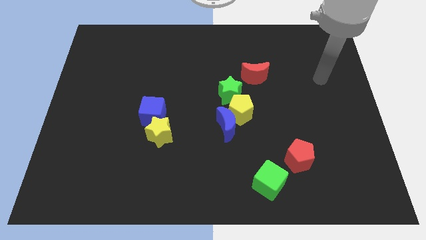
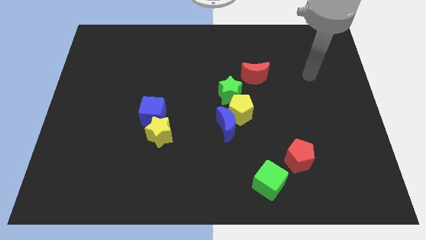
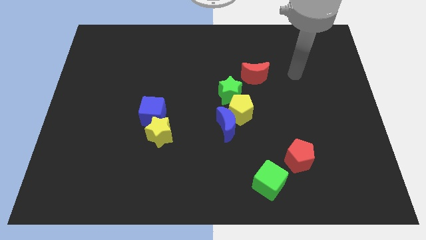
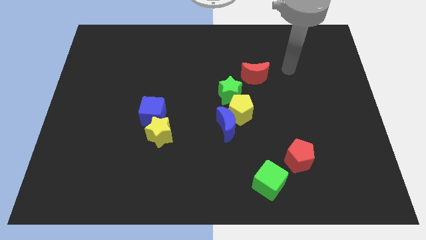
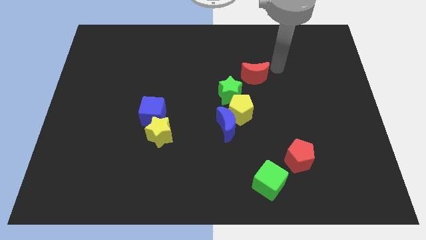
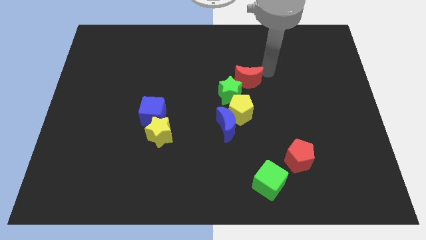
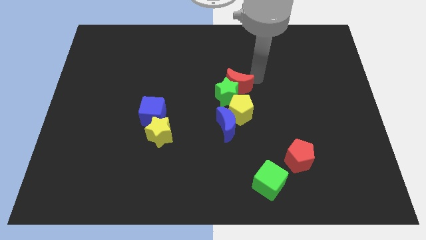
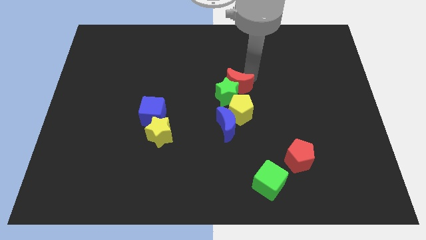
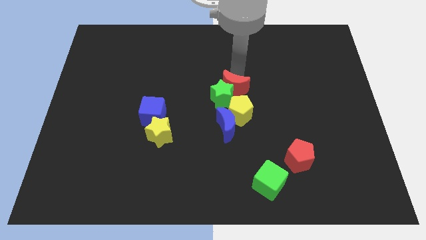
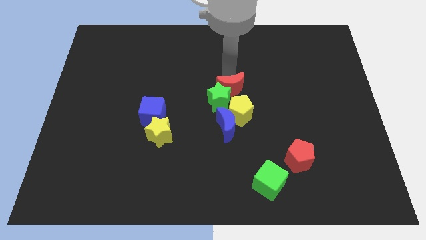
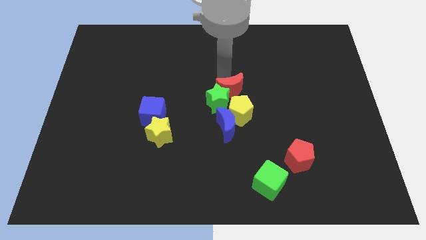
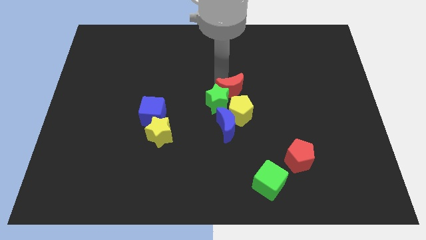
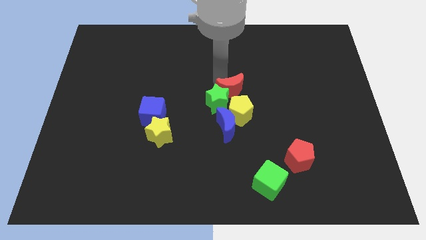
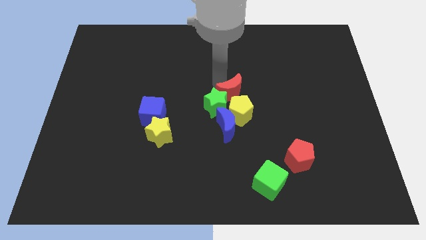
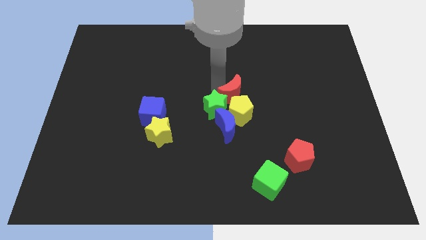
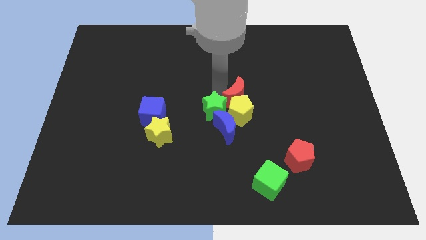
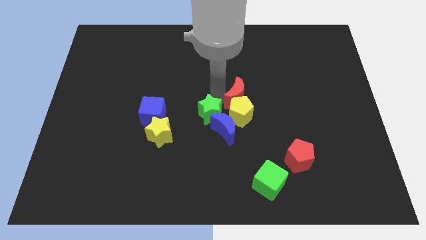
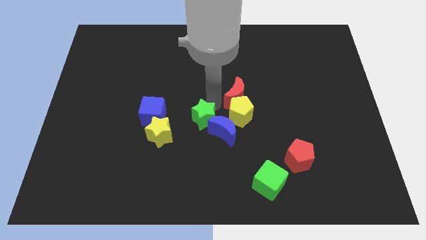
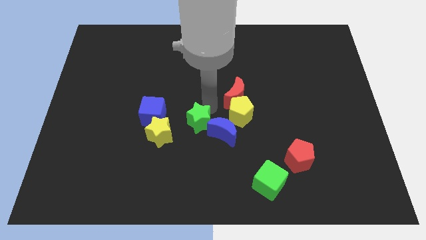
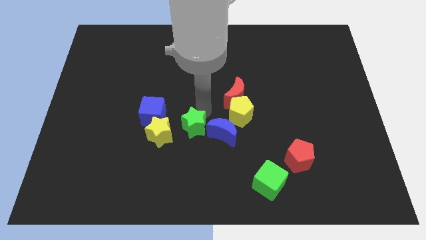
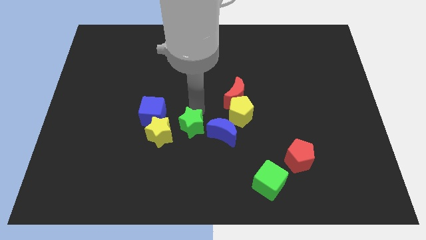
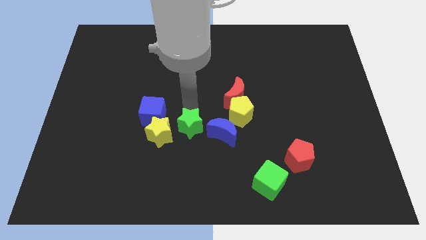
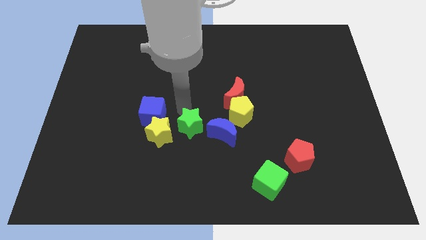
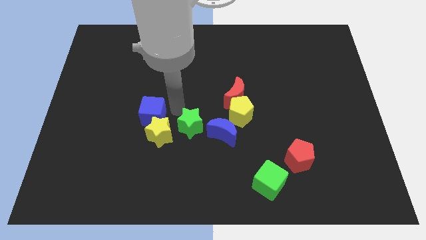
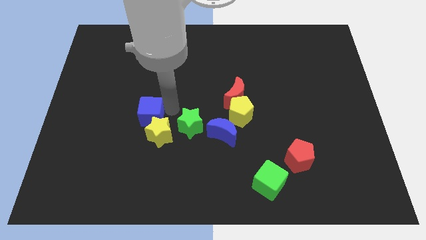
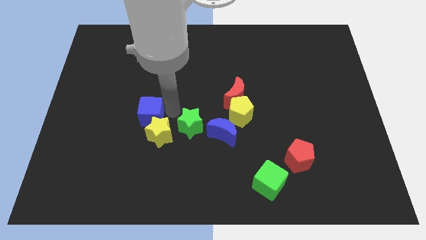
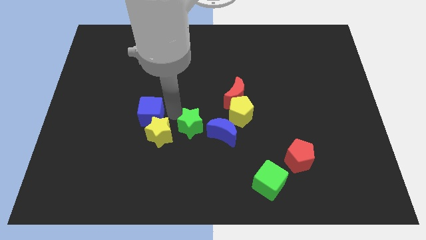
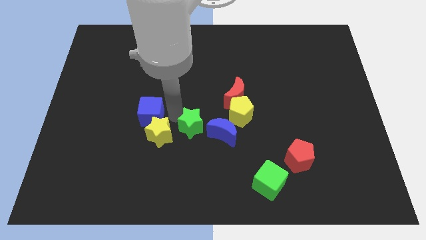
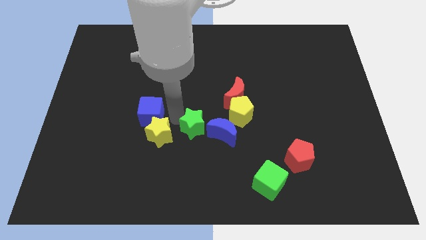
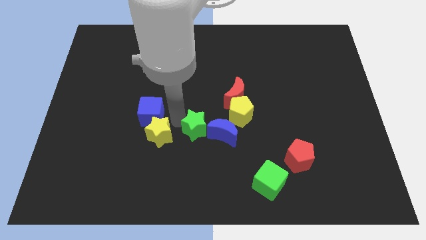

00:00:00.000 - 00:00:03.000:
slightly move the green star downwards

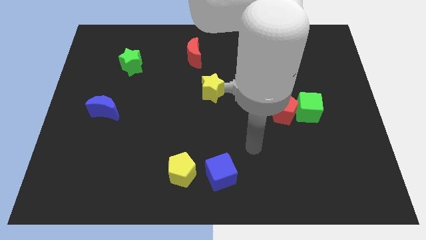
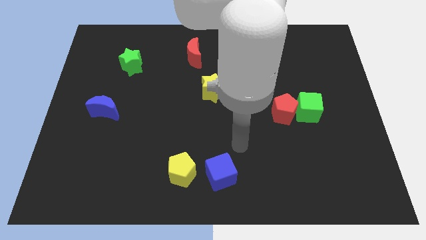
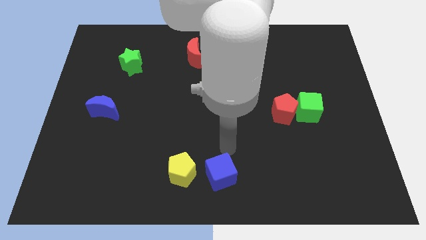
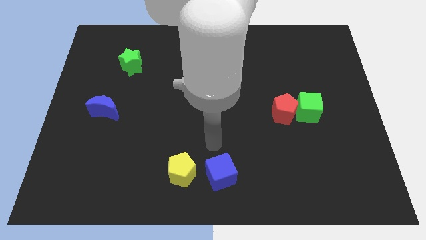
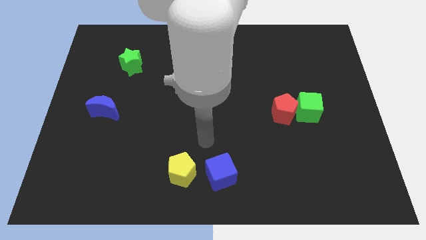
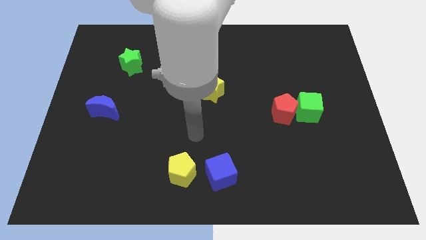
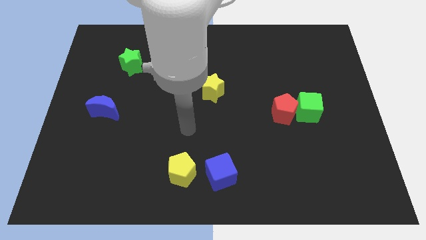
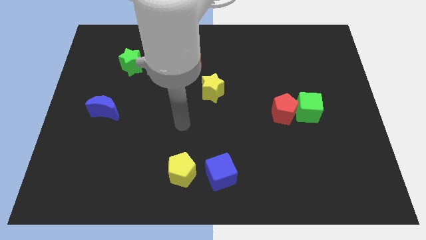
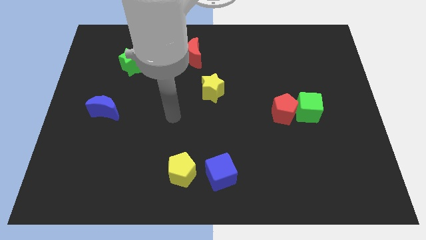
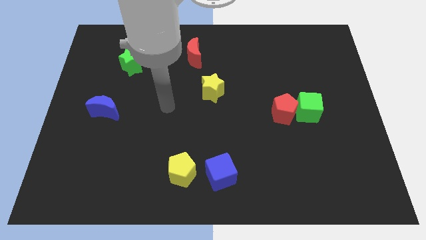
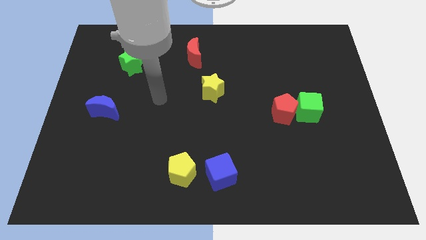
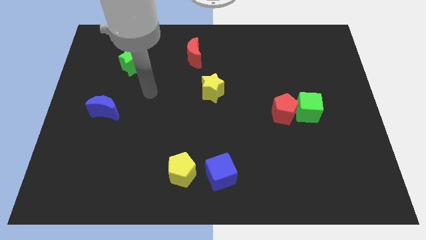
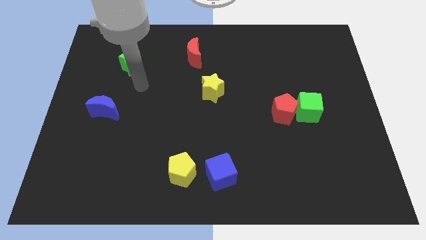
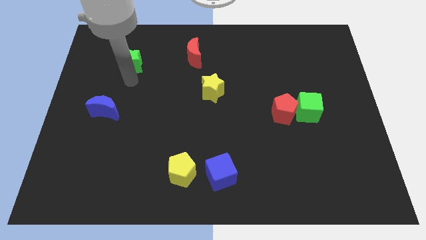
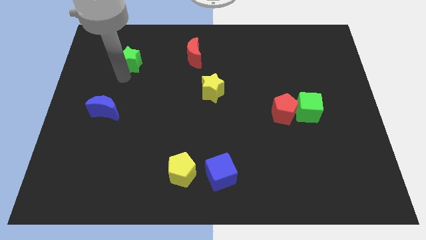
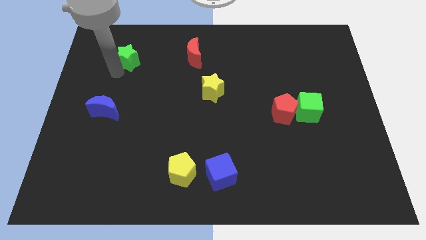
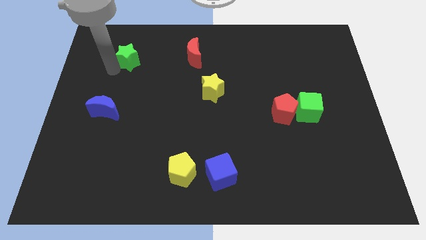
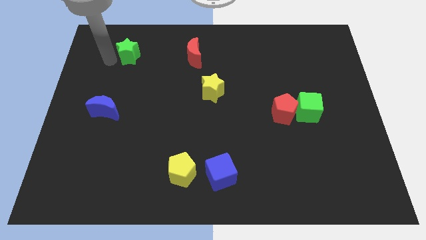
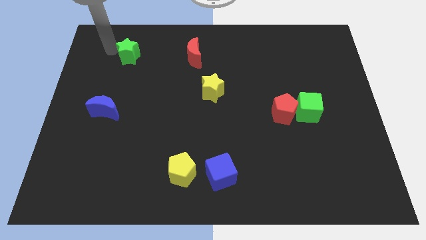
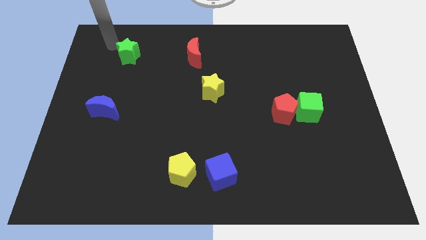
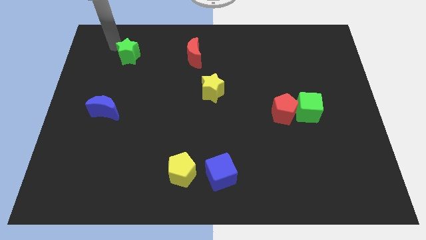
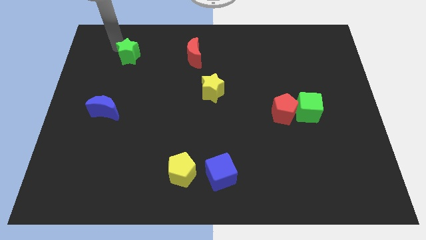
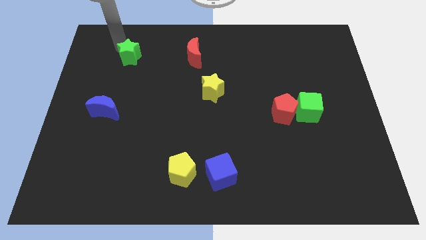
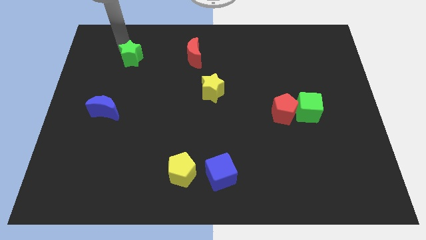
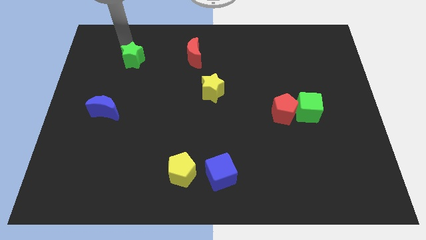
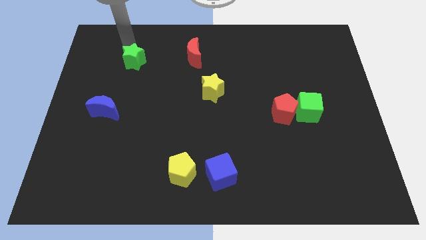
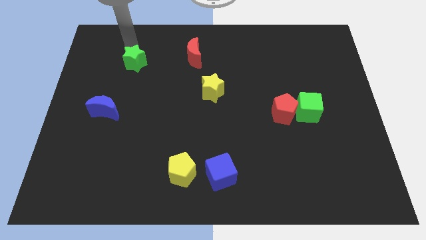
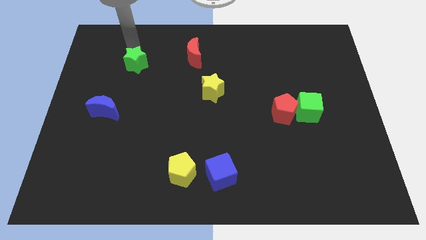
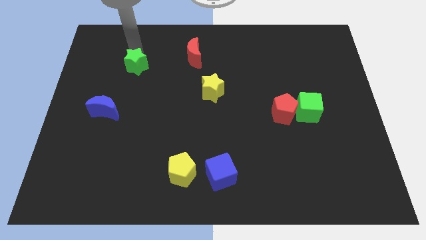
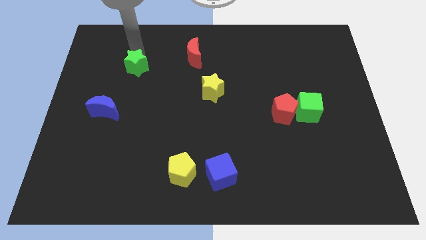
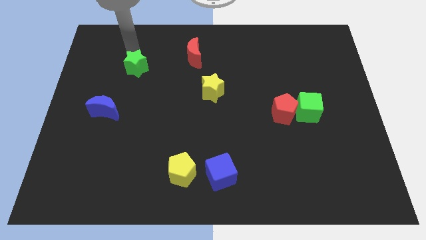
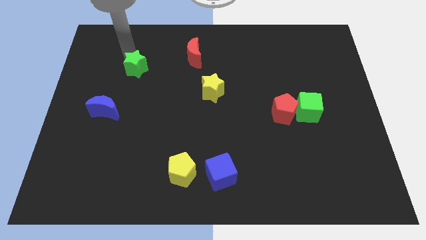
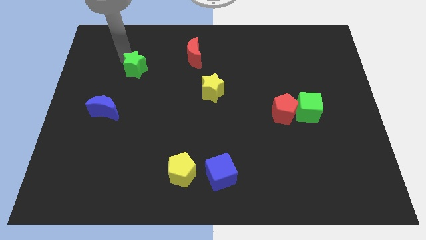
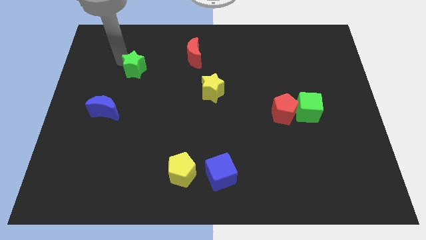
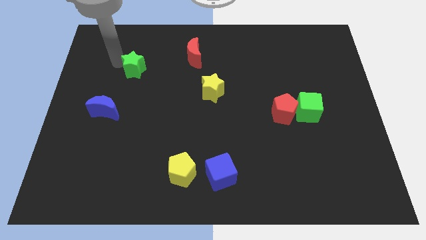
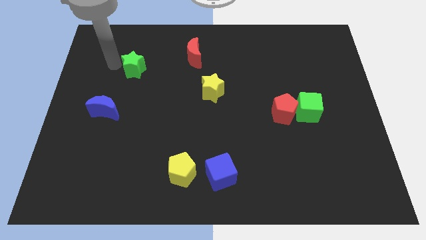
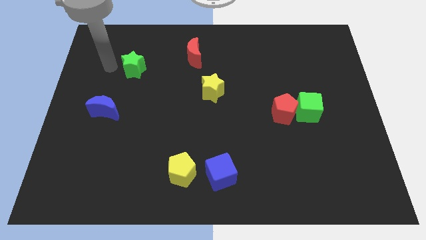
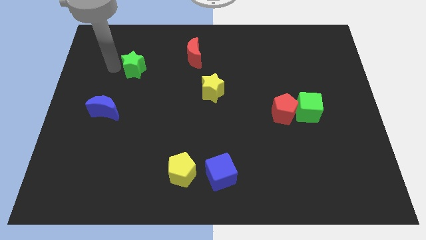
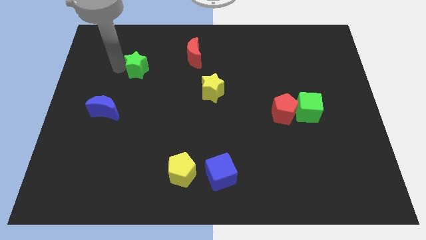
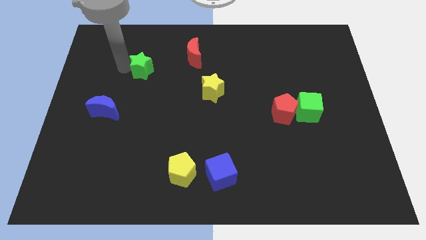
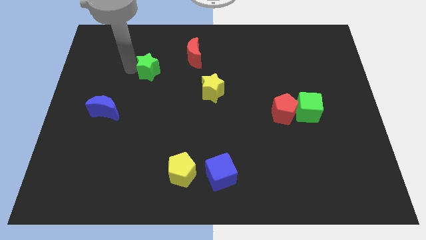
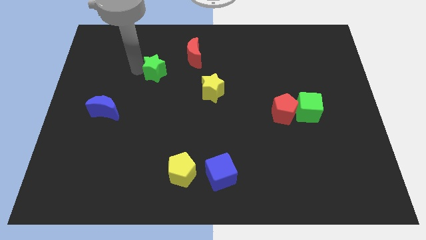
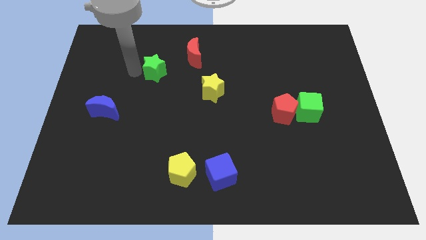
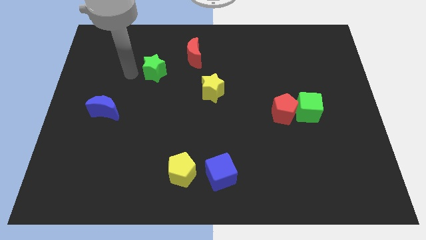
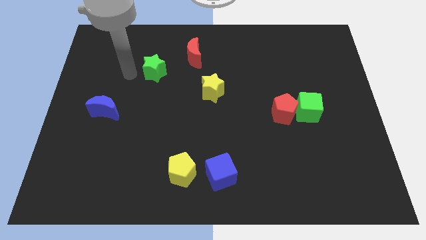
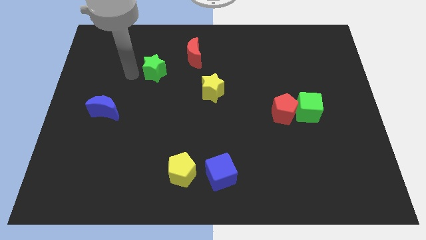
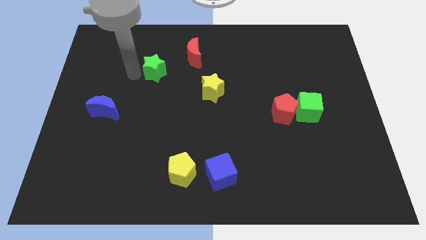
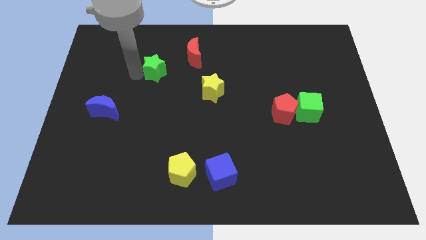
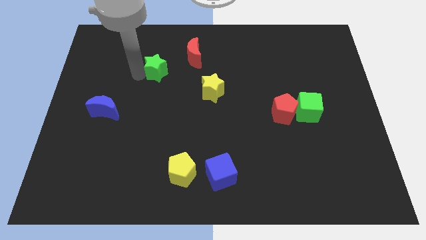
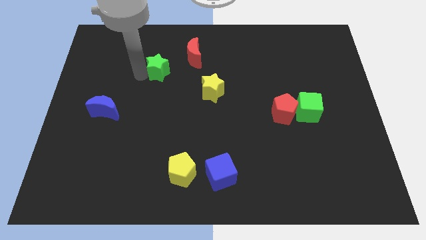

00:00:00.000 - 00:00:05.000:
slightly push the green star right

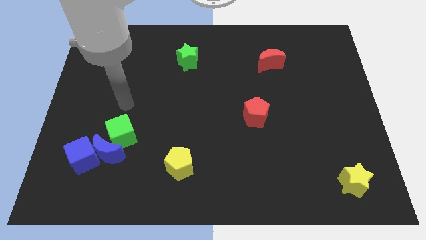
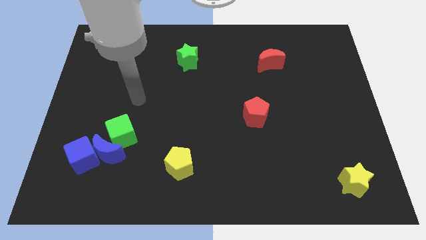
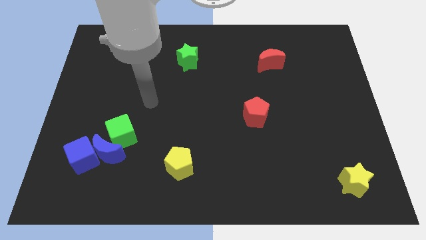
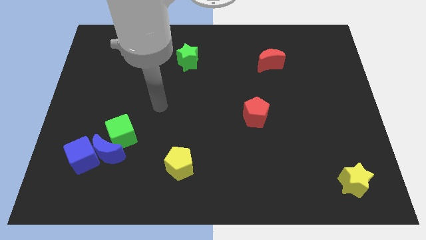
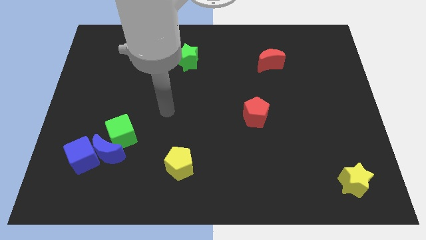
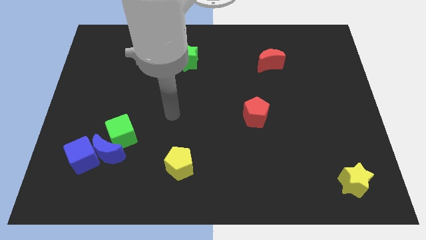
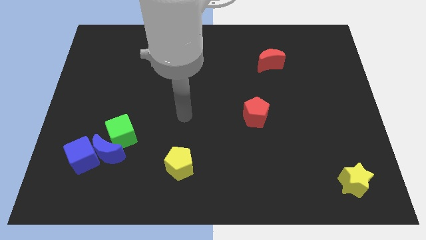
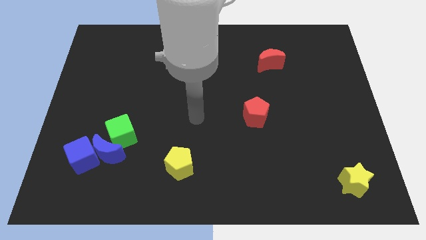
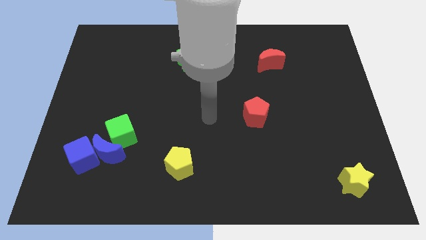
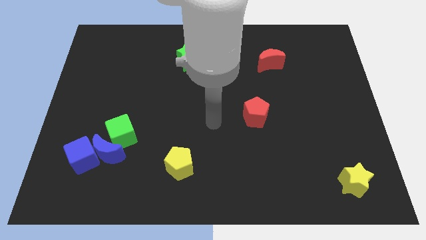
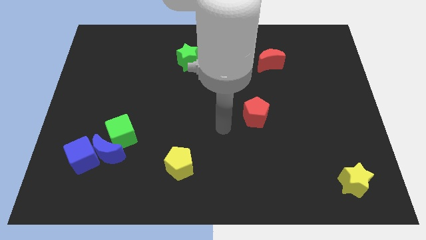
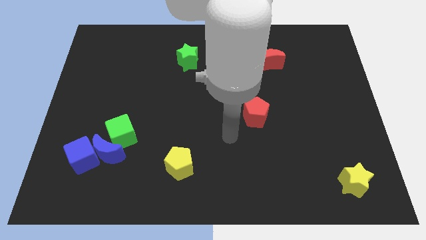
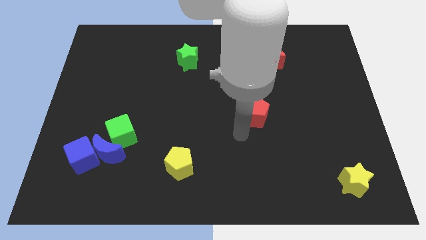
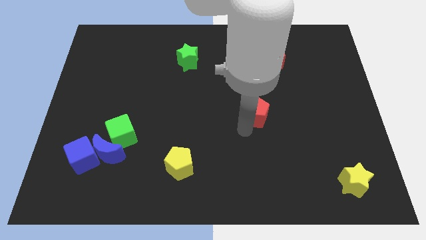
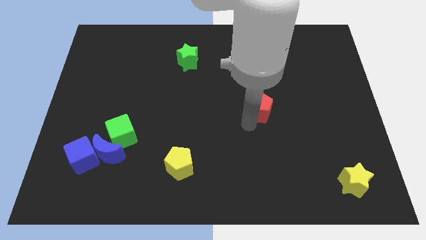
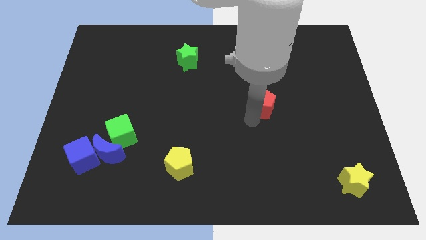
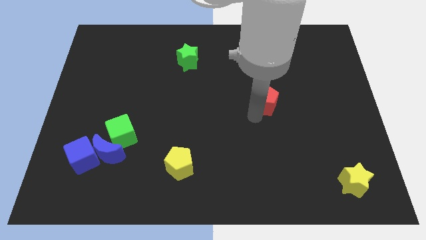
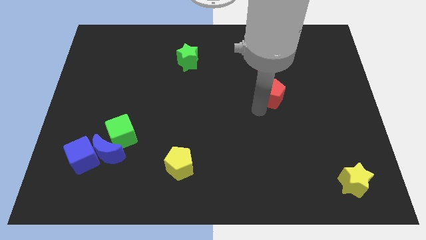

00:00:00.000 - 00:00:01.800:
slide the red pentagon somewhat up and right diagonally
